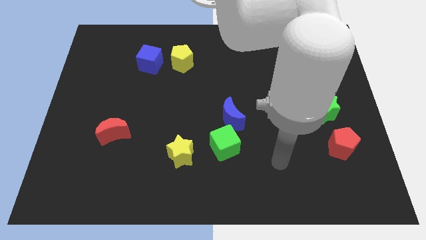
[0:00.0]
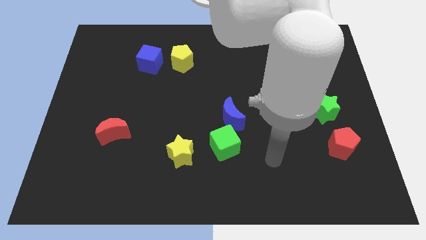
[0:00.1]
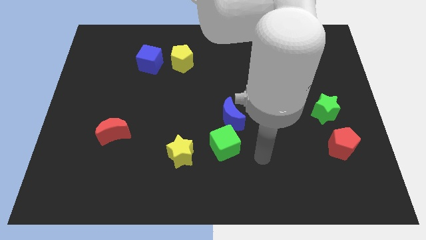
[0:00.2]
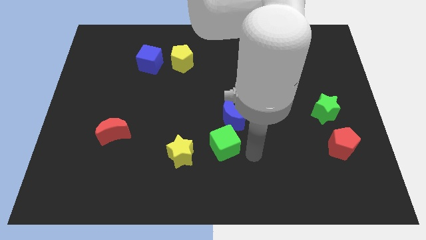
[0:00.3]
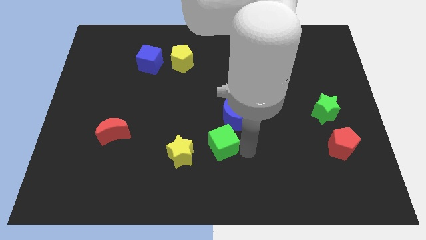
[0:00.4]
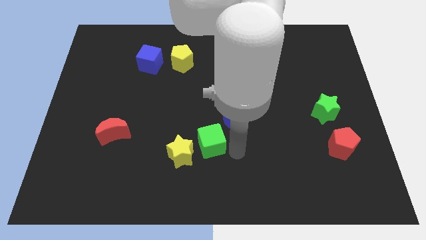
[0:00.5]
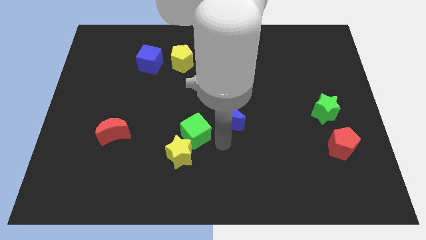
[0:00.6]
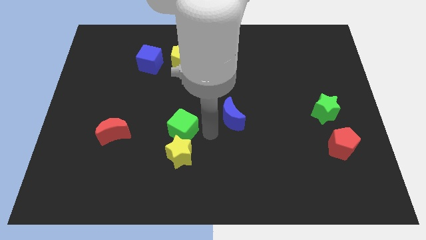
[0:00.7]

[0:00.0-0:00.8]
pull the blue moon apart from the green cube

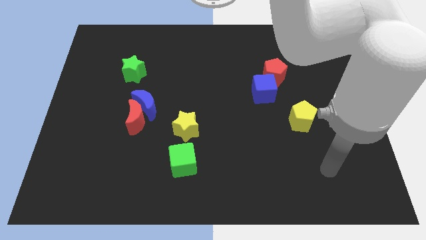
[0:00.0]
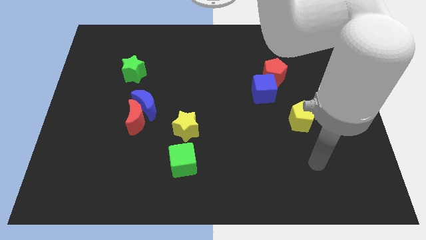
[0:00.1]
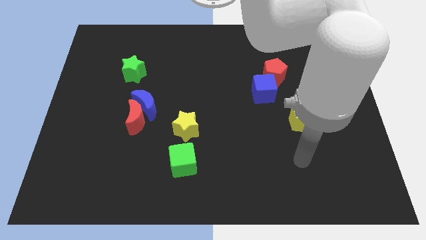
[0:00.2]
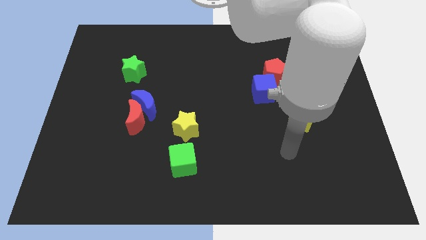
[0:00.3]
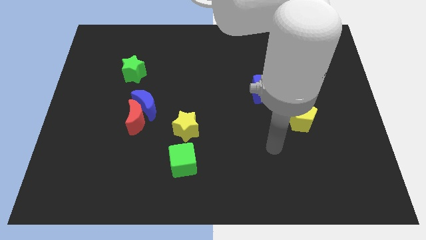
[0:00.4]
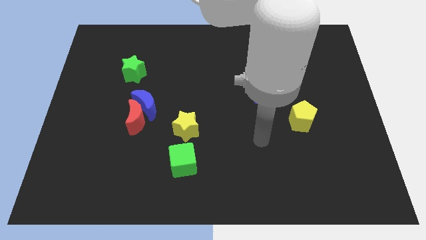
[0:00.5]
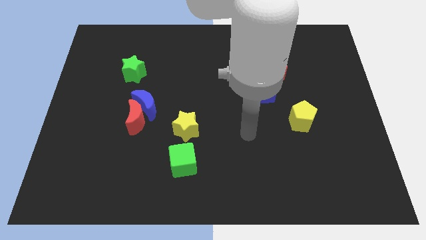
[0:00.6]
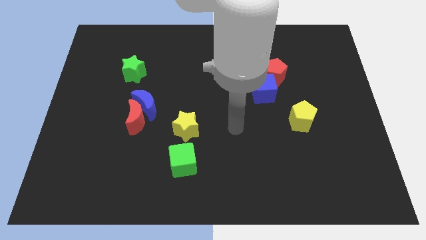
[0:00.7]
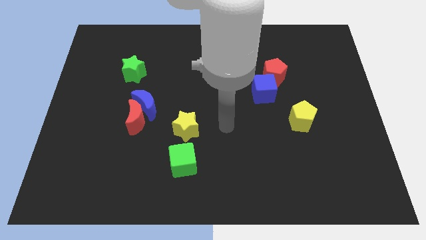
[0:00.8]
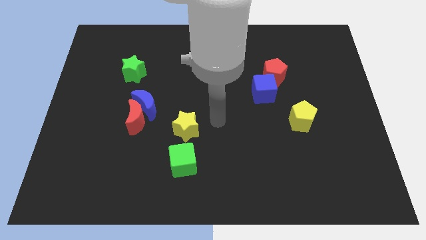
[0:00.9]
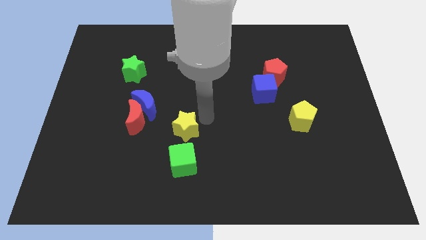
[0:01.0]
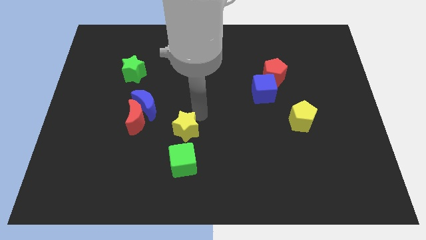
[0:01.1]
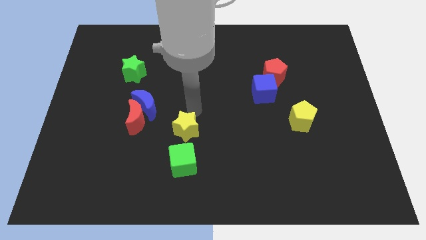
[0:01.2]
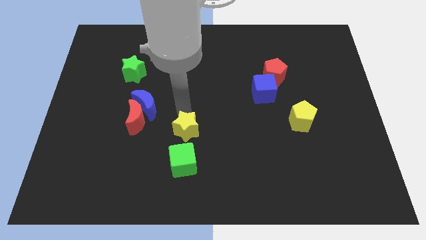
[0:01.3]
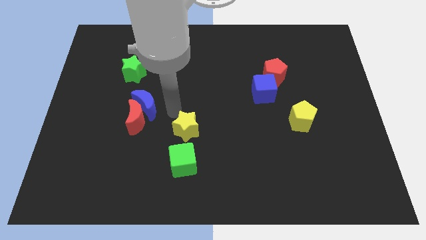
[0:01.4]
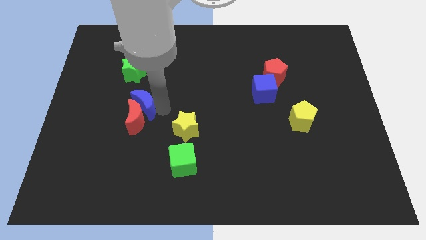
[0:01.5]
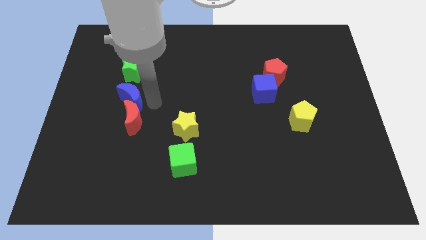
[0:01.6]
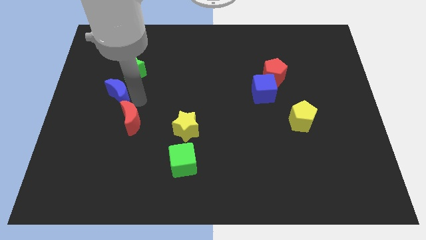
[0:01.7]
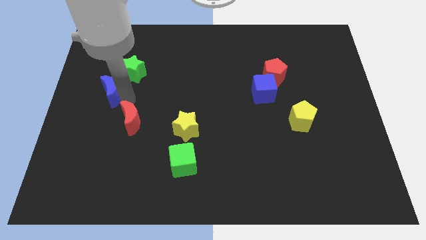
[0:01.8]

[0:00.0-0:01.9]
separate the red moon from the blue moon

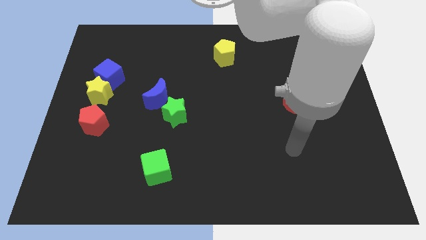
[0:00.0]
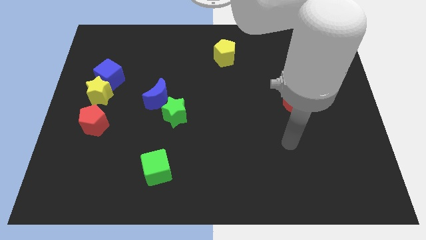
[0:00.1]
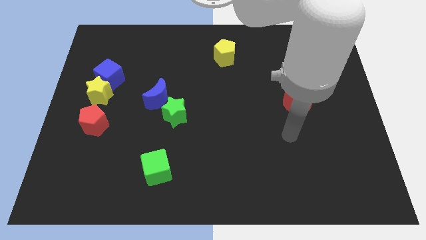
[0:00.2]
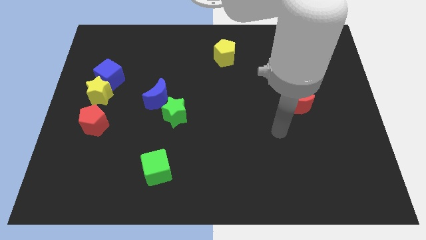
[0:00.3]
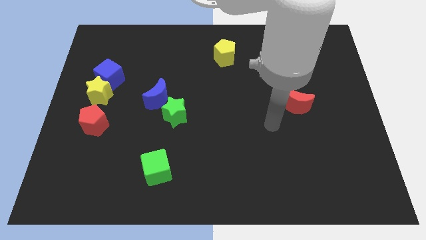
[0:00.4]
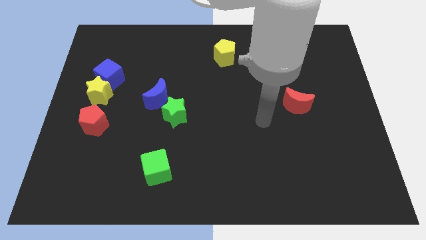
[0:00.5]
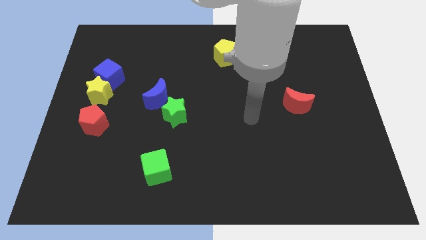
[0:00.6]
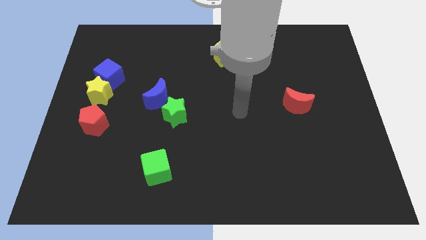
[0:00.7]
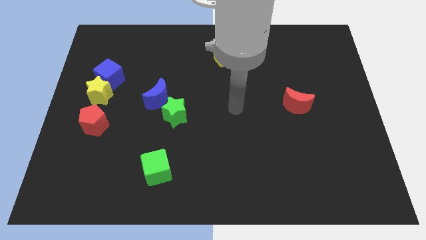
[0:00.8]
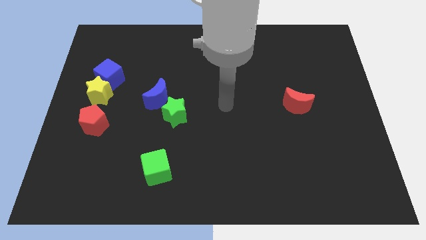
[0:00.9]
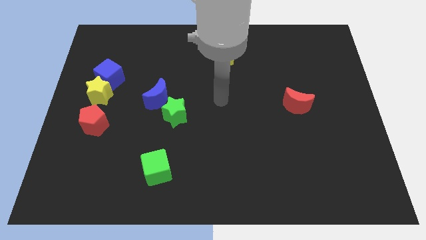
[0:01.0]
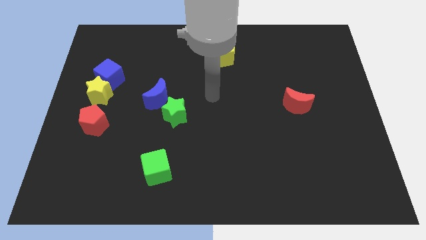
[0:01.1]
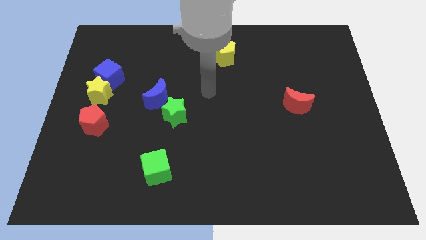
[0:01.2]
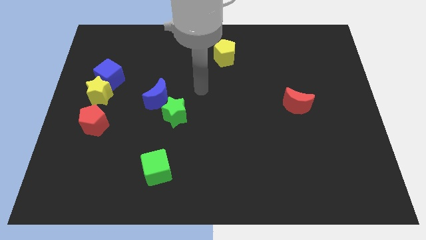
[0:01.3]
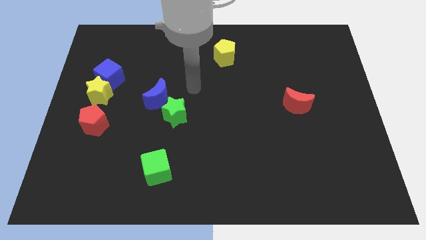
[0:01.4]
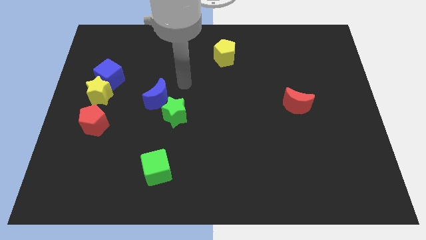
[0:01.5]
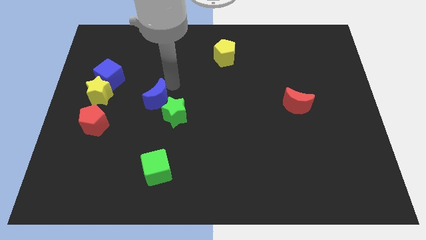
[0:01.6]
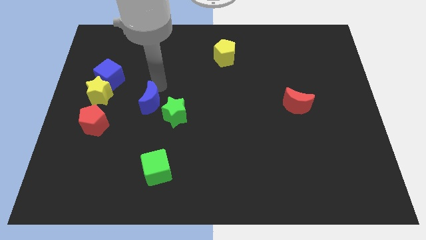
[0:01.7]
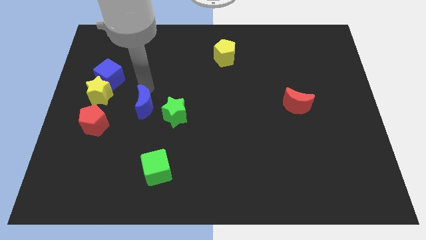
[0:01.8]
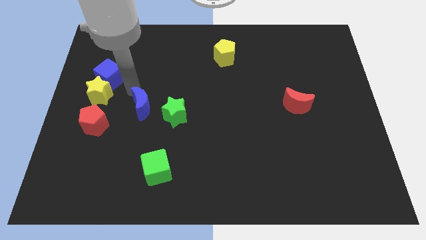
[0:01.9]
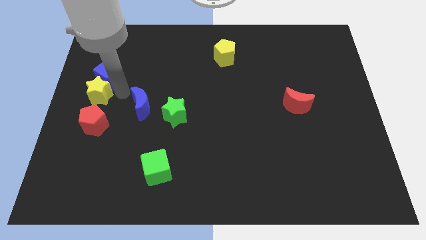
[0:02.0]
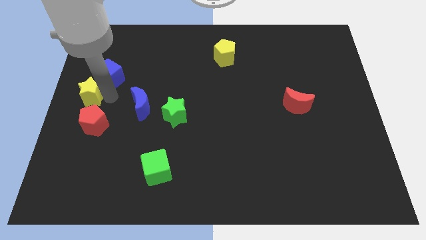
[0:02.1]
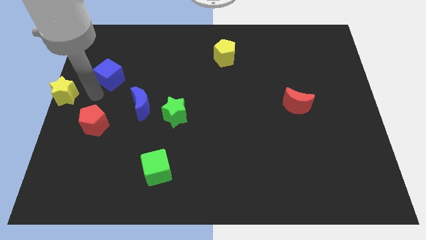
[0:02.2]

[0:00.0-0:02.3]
separate the blue cube from the yellow star

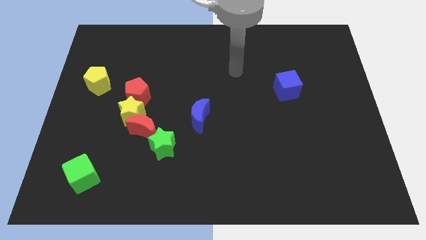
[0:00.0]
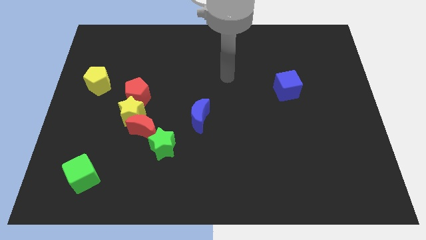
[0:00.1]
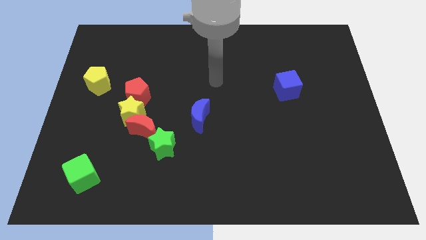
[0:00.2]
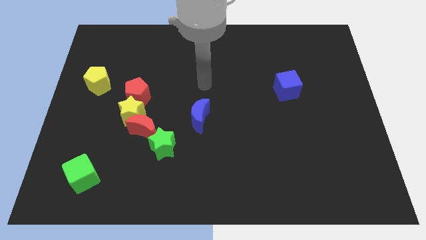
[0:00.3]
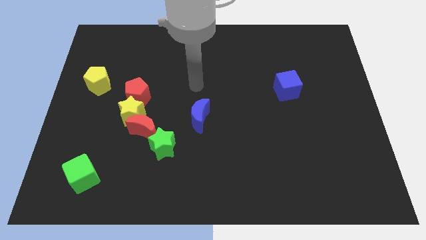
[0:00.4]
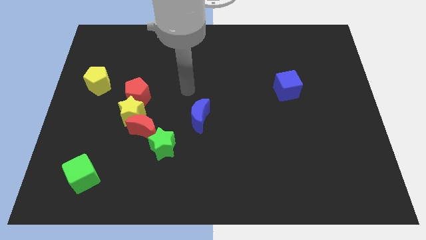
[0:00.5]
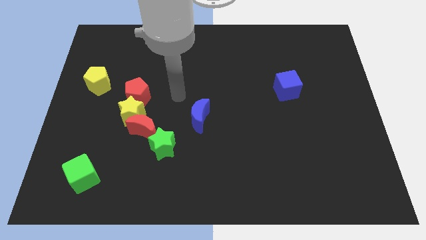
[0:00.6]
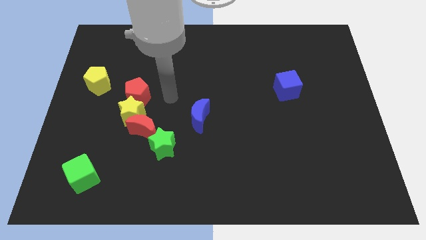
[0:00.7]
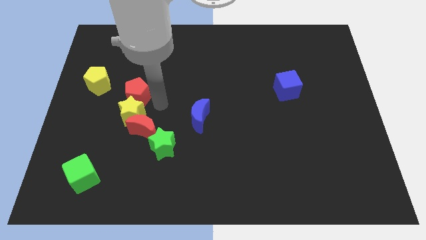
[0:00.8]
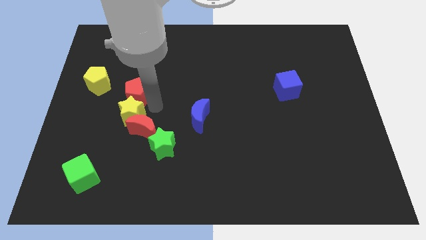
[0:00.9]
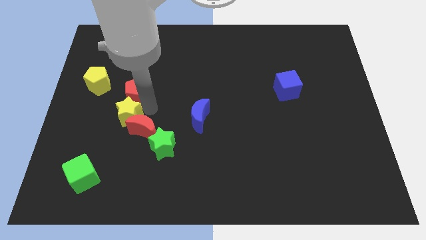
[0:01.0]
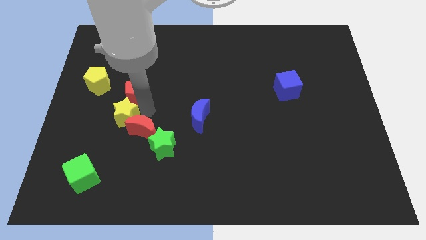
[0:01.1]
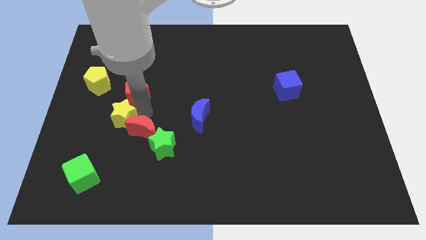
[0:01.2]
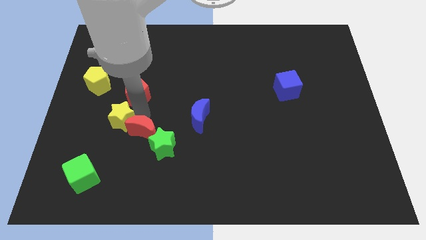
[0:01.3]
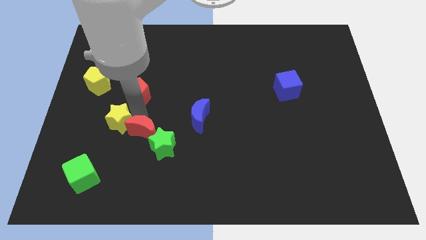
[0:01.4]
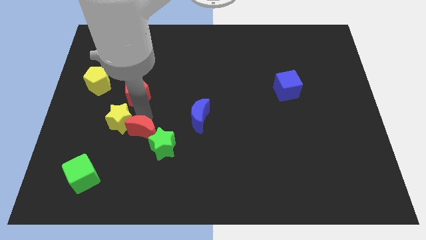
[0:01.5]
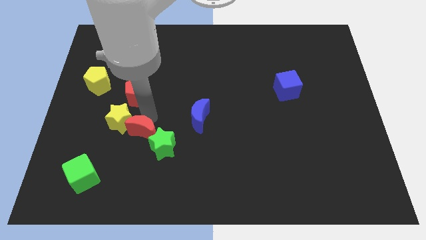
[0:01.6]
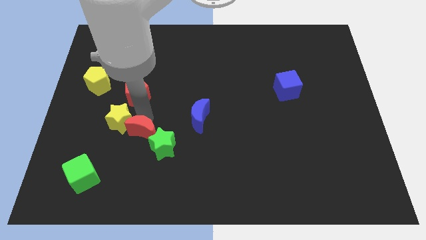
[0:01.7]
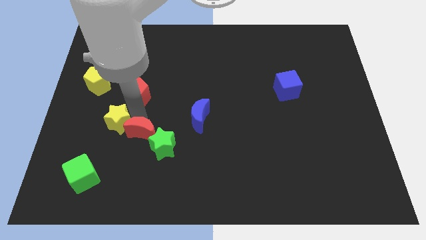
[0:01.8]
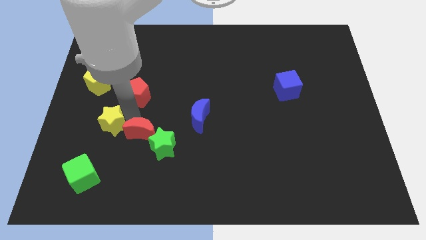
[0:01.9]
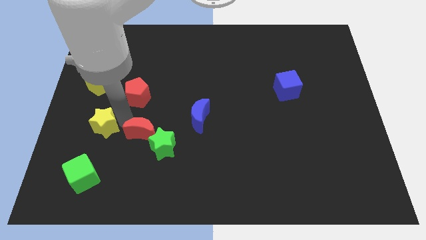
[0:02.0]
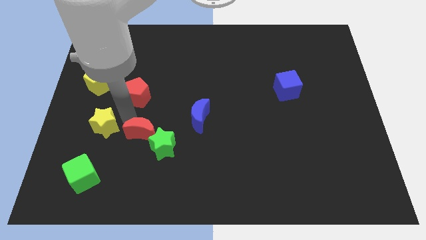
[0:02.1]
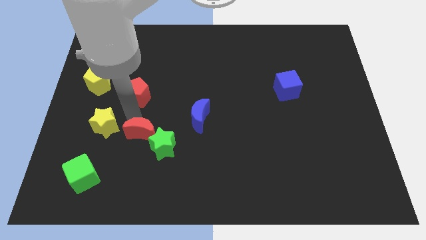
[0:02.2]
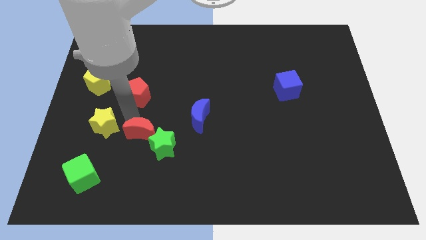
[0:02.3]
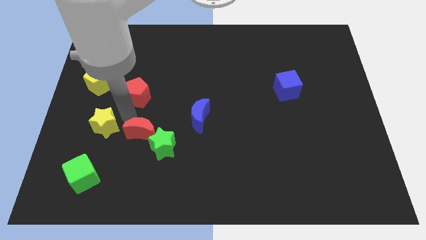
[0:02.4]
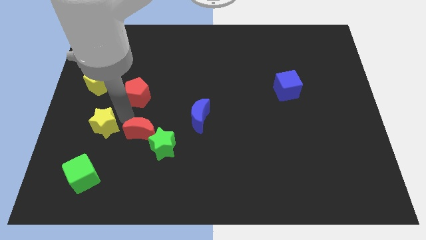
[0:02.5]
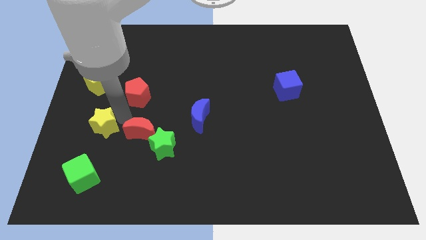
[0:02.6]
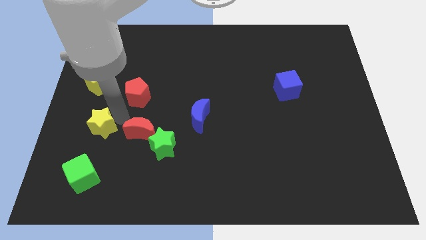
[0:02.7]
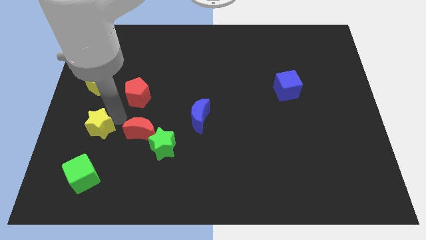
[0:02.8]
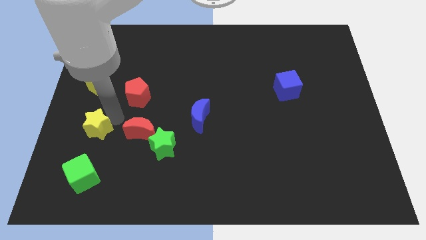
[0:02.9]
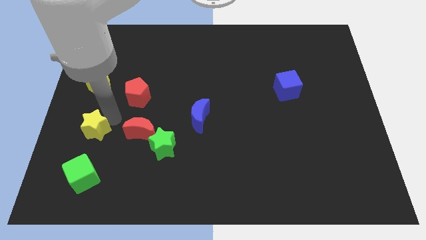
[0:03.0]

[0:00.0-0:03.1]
pull the yellow star apart from the red moon and red pentagon

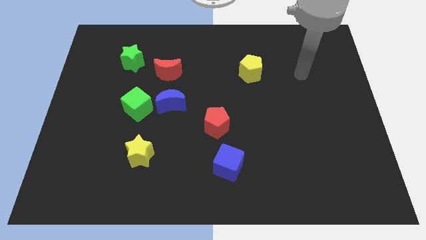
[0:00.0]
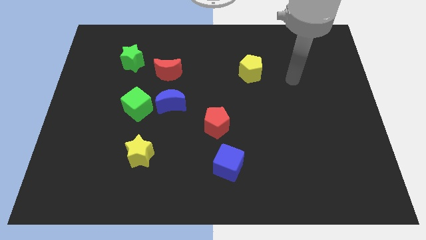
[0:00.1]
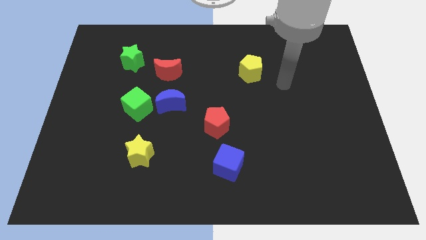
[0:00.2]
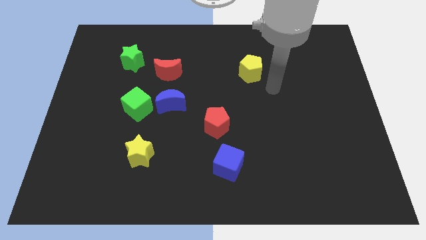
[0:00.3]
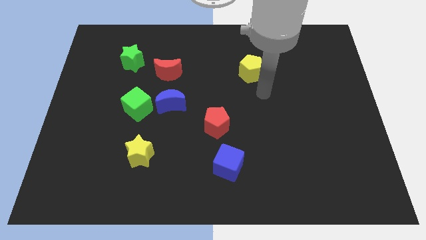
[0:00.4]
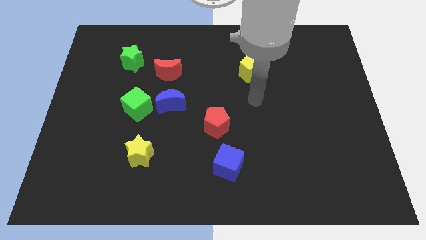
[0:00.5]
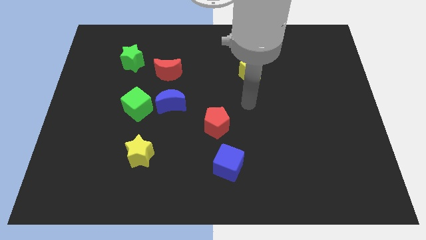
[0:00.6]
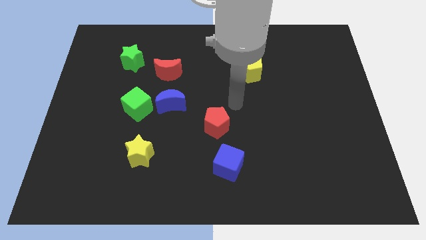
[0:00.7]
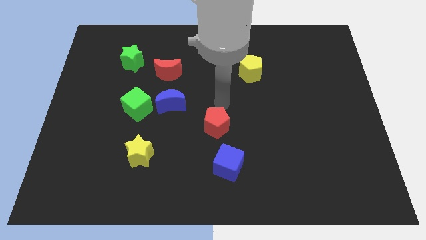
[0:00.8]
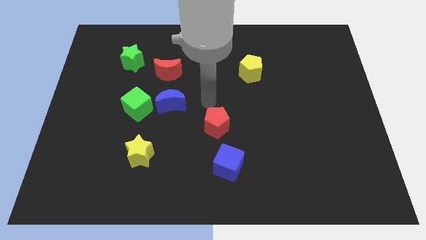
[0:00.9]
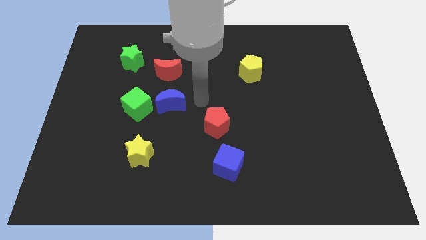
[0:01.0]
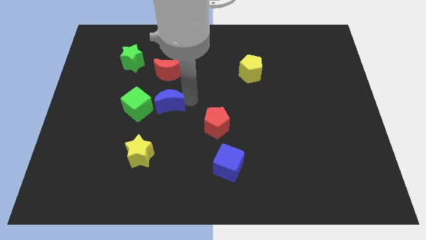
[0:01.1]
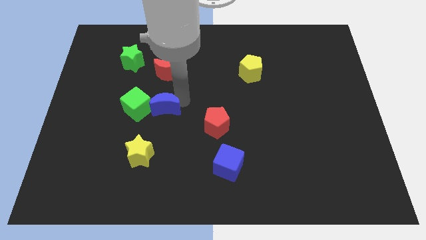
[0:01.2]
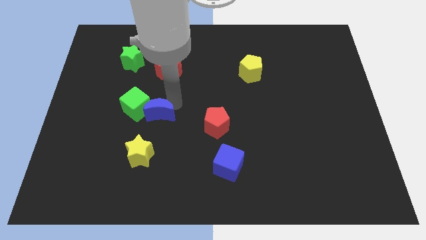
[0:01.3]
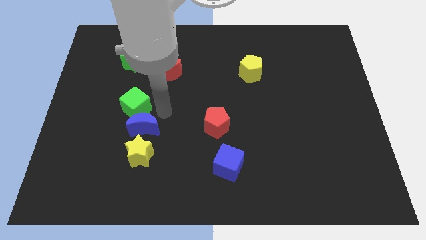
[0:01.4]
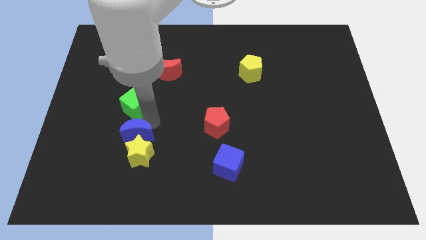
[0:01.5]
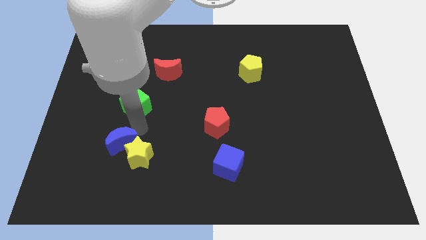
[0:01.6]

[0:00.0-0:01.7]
move the green cube away from the blue moon
